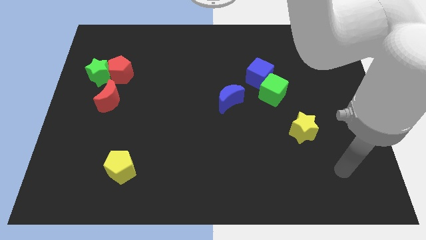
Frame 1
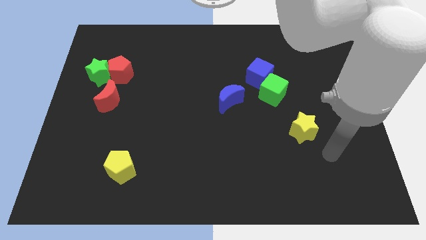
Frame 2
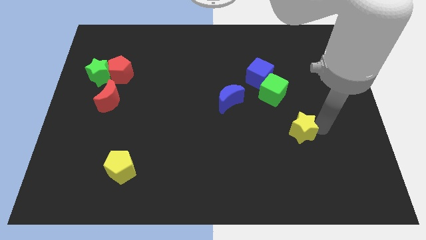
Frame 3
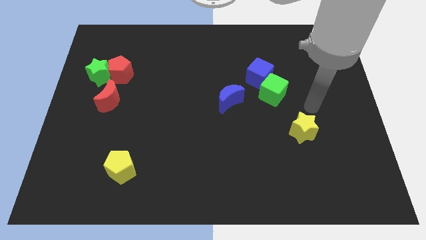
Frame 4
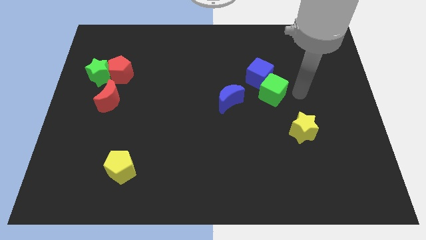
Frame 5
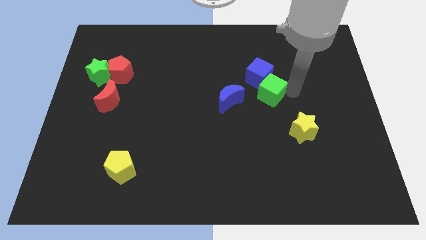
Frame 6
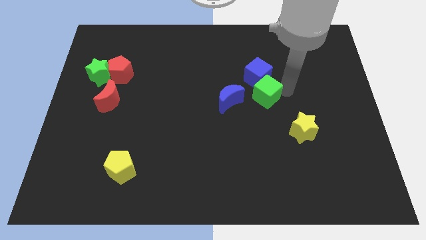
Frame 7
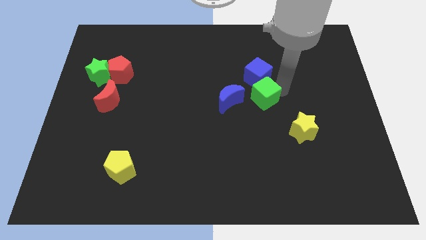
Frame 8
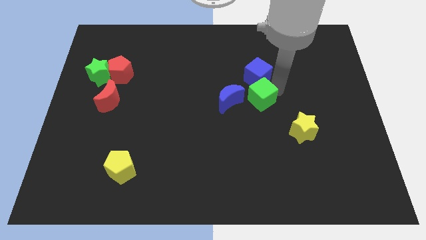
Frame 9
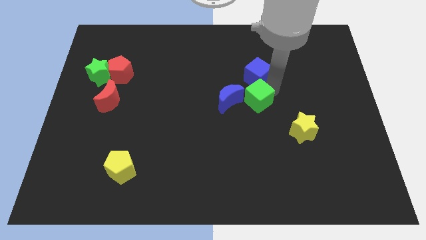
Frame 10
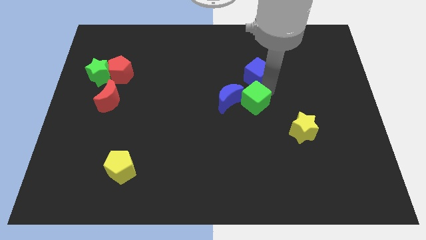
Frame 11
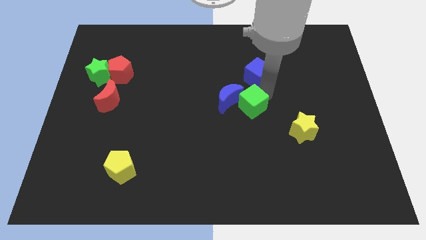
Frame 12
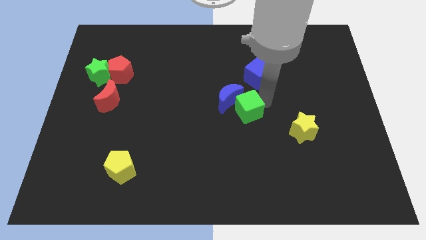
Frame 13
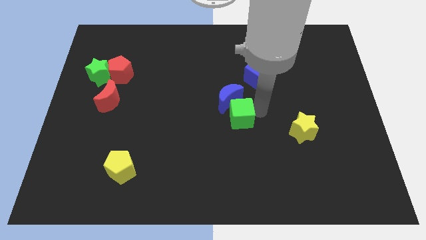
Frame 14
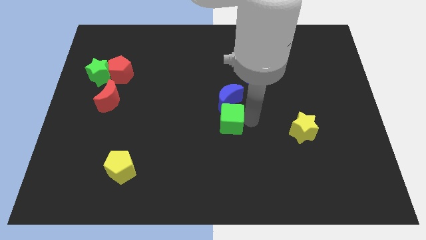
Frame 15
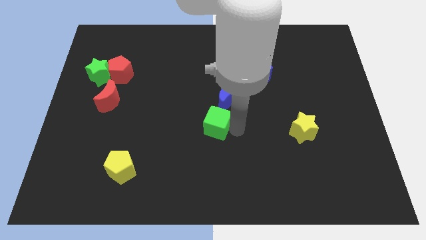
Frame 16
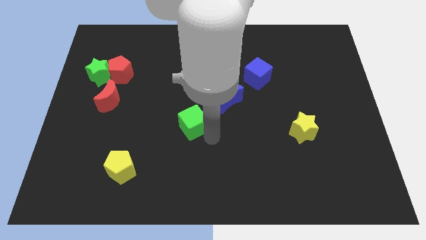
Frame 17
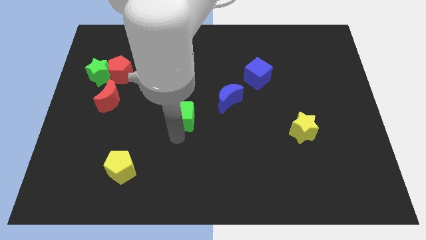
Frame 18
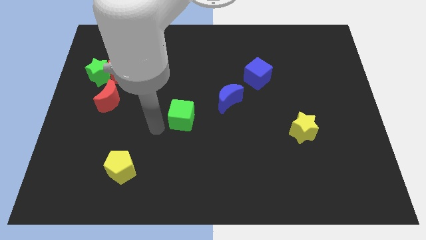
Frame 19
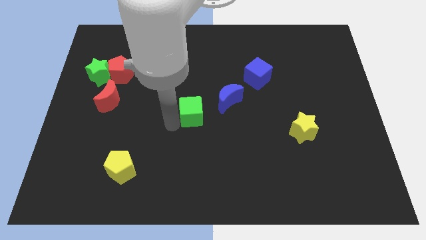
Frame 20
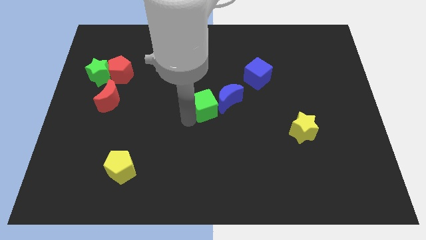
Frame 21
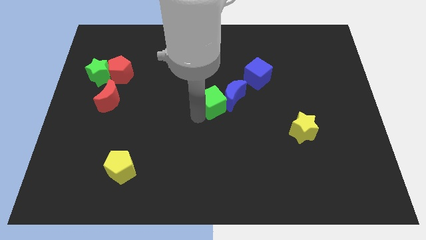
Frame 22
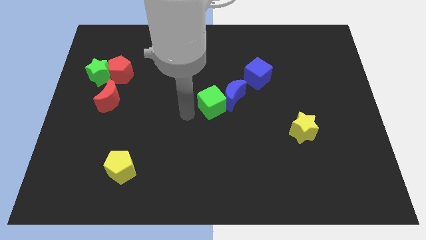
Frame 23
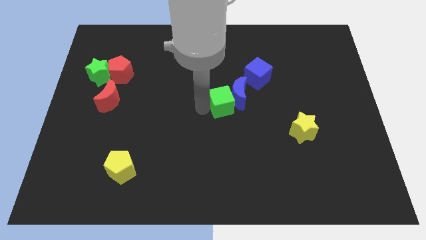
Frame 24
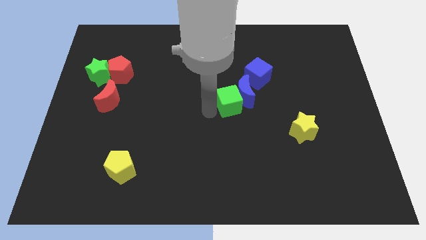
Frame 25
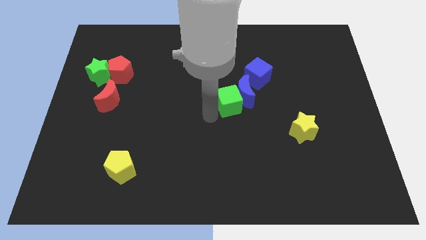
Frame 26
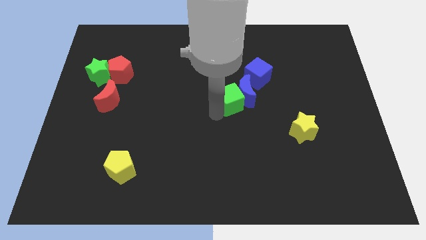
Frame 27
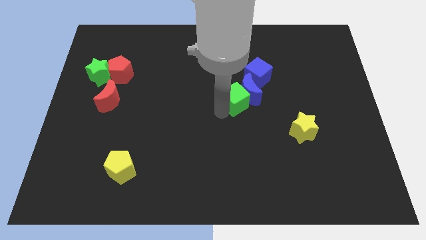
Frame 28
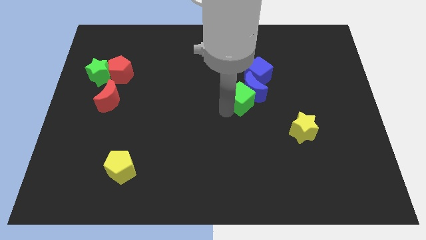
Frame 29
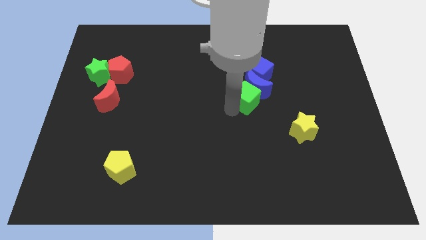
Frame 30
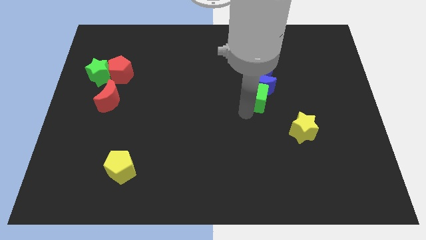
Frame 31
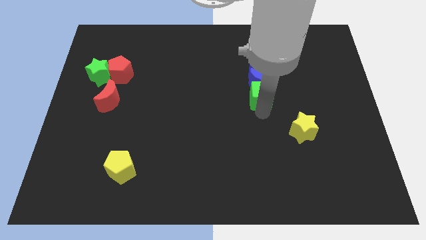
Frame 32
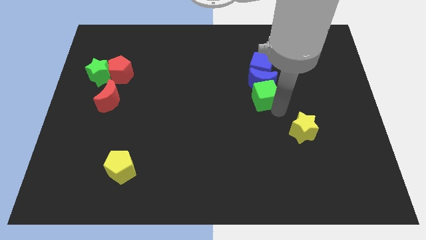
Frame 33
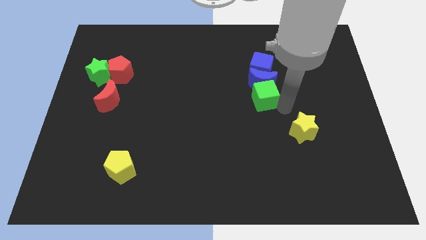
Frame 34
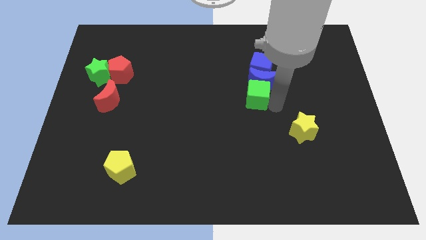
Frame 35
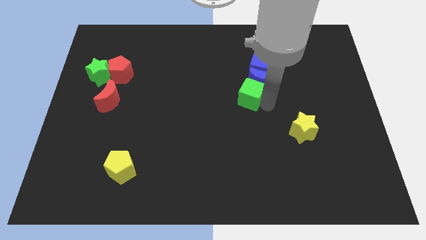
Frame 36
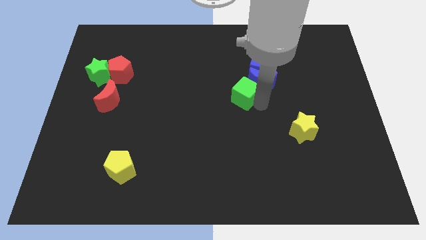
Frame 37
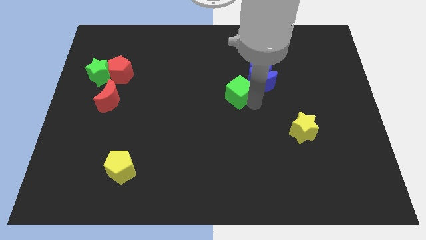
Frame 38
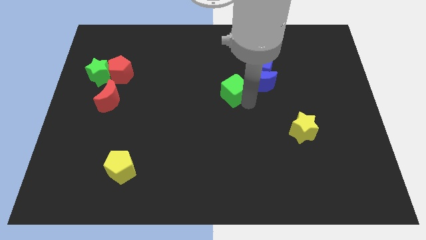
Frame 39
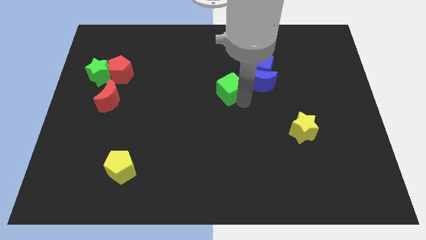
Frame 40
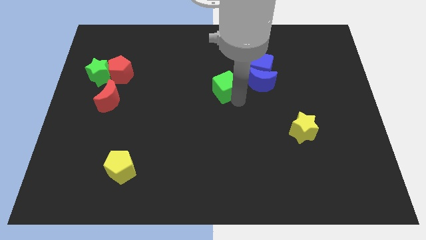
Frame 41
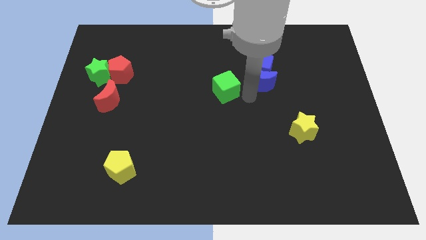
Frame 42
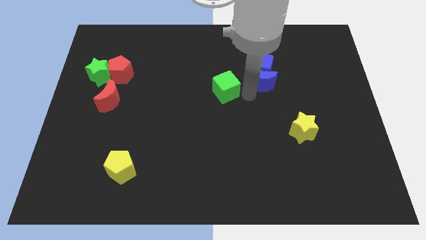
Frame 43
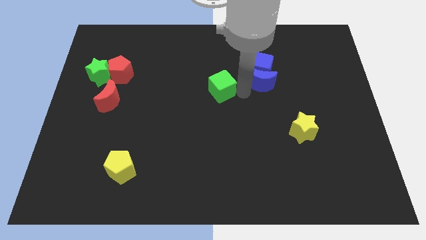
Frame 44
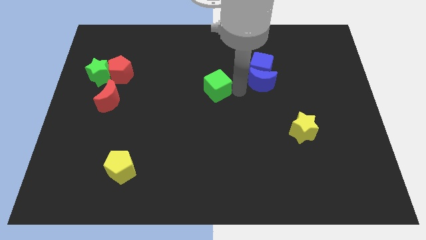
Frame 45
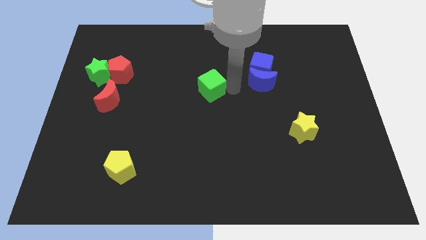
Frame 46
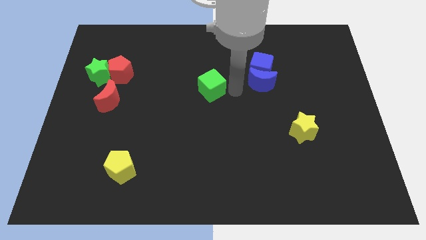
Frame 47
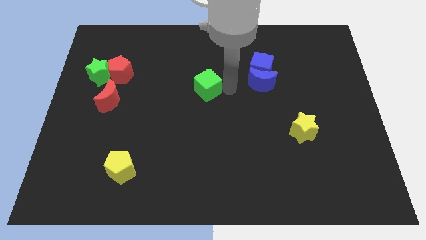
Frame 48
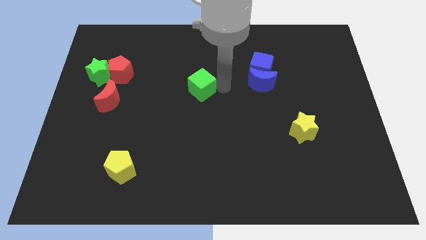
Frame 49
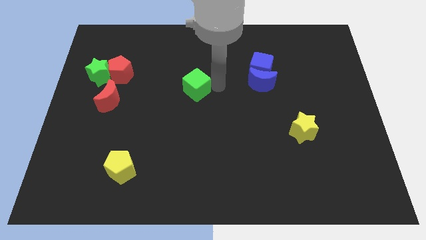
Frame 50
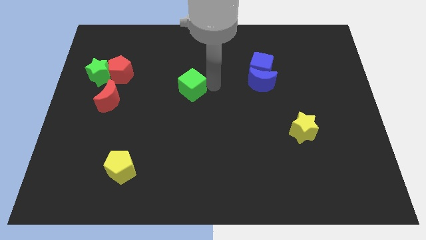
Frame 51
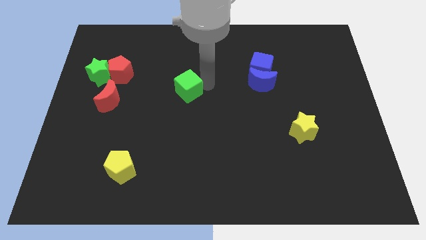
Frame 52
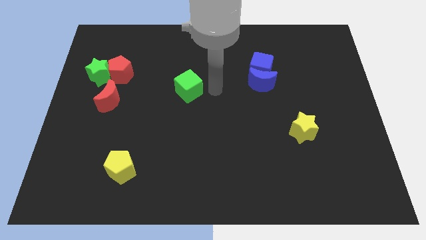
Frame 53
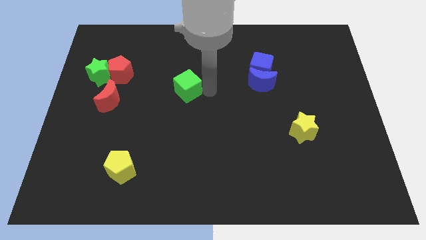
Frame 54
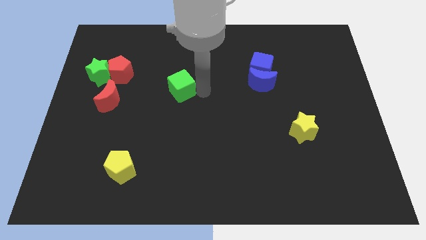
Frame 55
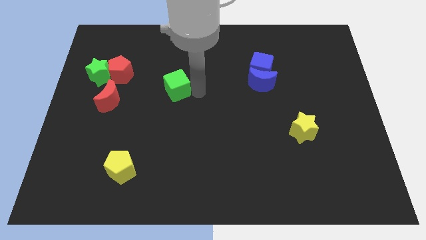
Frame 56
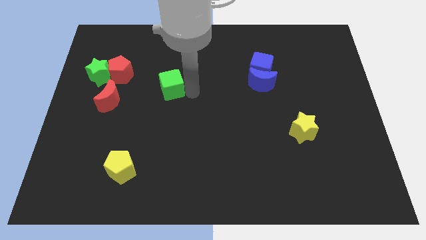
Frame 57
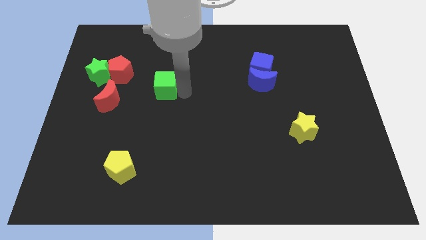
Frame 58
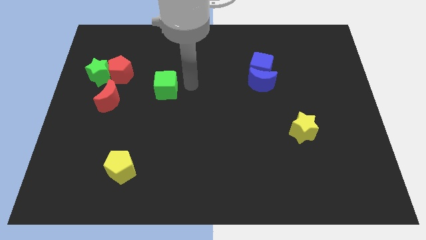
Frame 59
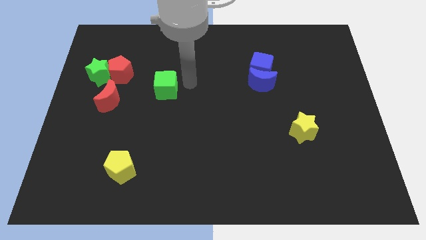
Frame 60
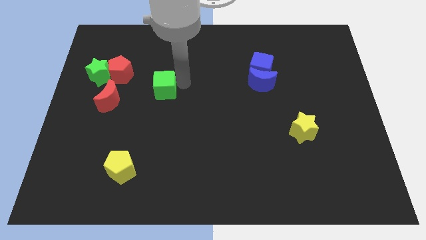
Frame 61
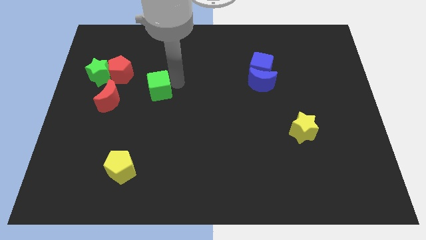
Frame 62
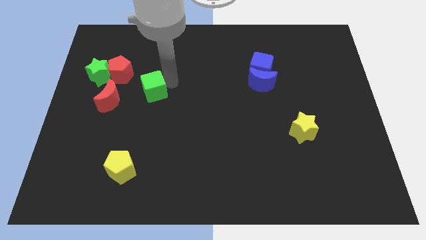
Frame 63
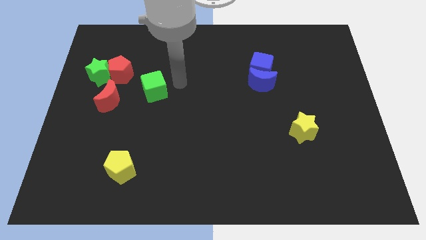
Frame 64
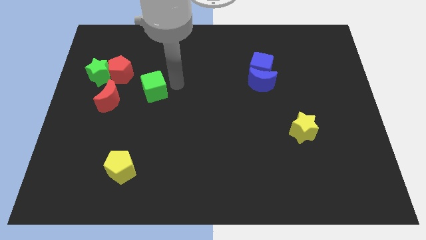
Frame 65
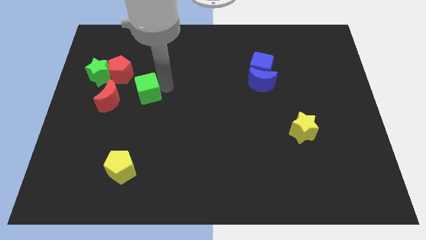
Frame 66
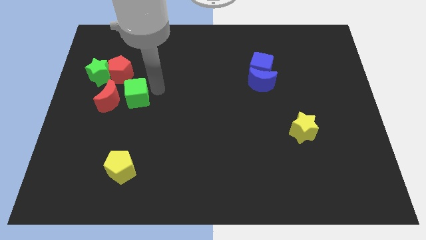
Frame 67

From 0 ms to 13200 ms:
move the green cube to the red moon

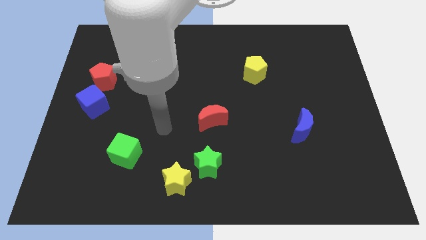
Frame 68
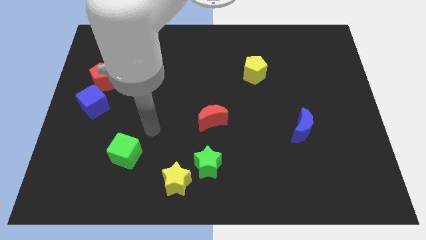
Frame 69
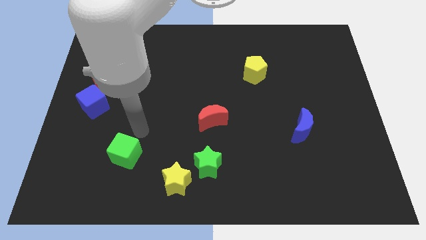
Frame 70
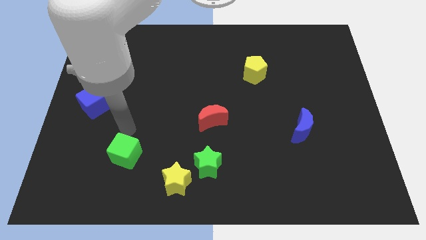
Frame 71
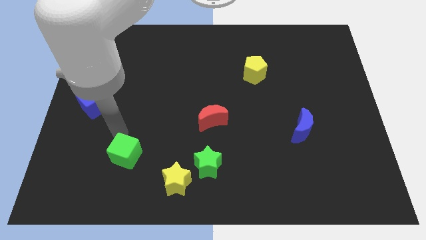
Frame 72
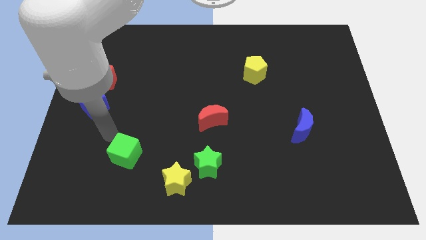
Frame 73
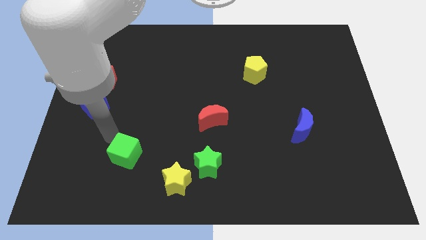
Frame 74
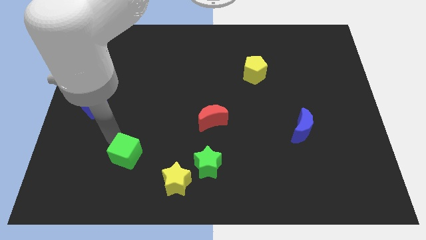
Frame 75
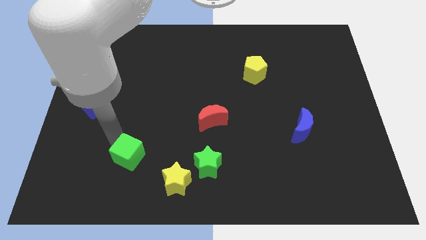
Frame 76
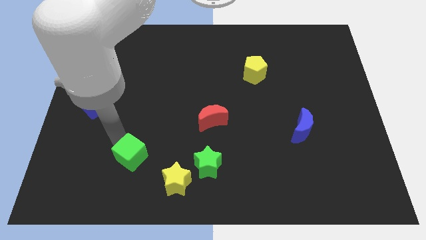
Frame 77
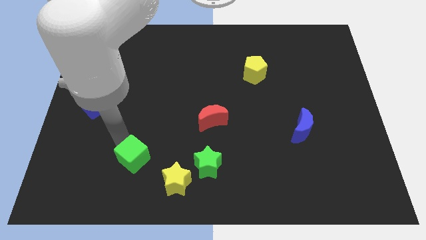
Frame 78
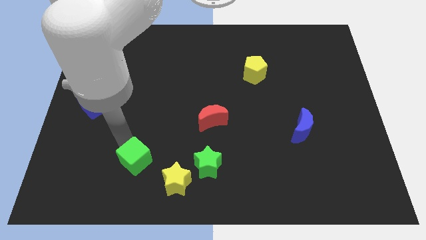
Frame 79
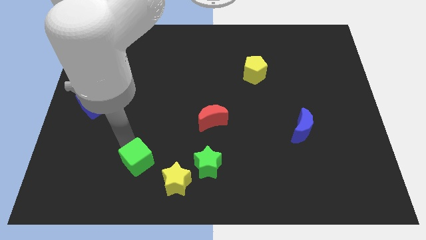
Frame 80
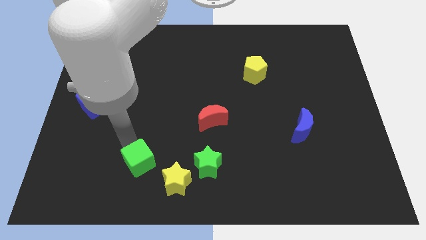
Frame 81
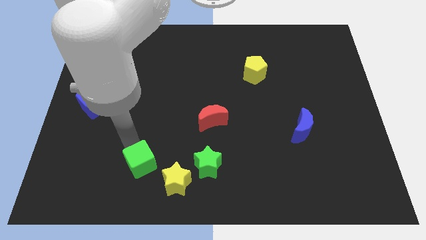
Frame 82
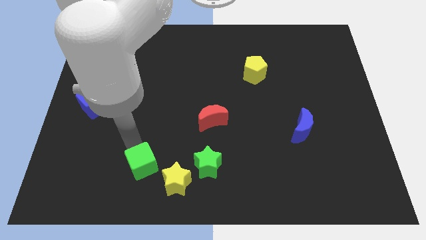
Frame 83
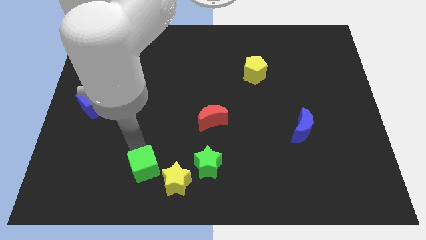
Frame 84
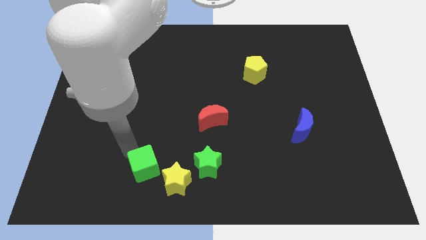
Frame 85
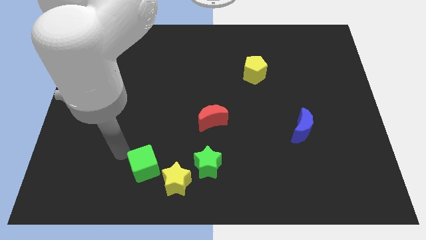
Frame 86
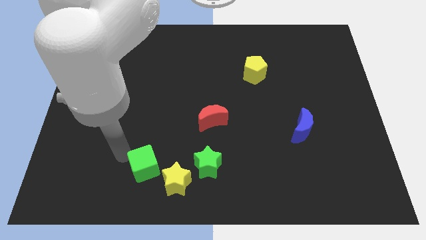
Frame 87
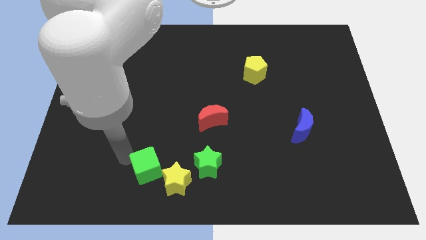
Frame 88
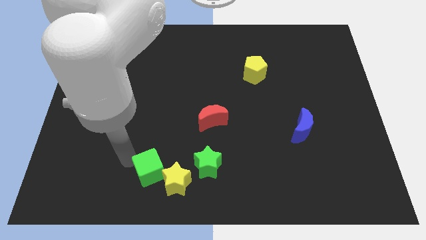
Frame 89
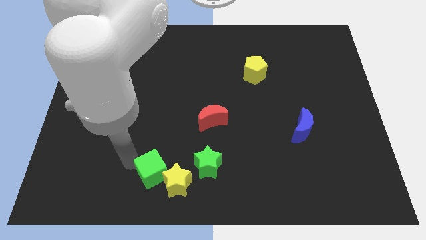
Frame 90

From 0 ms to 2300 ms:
move the green cube towards the yellow star
